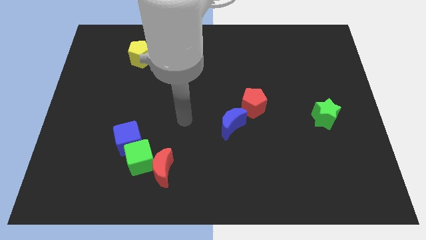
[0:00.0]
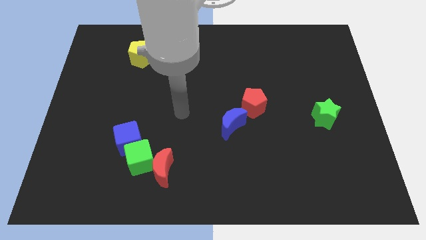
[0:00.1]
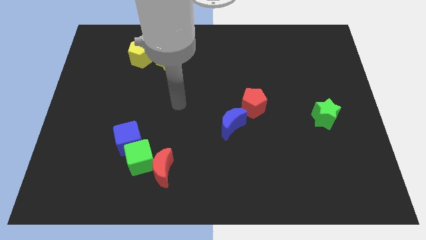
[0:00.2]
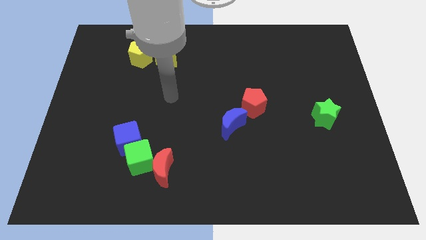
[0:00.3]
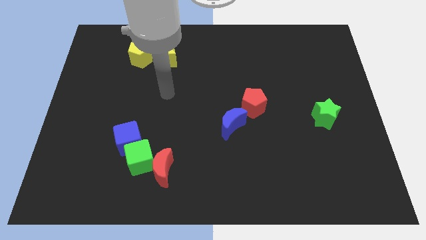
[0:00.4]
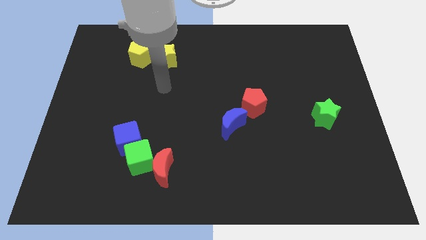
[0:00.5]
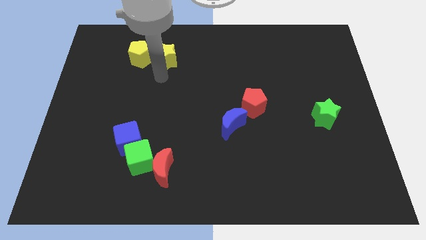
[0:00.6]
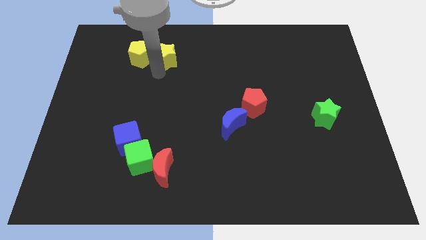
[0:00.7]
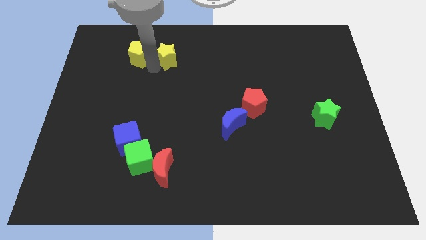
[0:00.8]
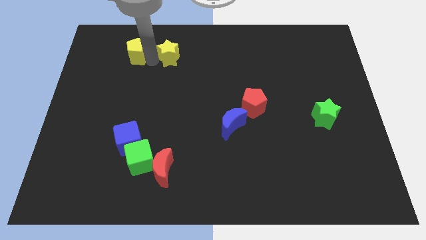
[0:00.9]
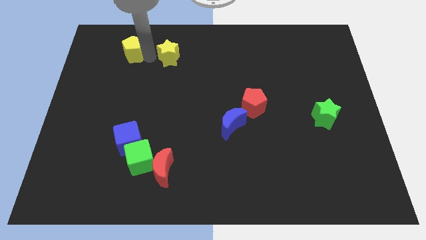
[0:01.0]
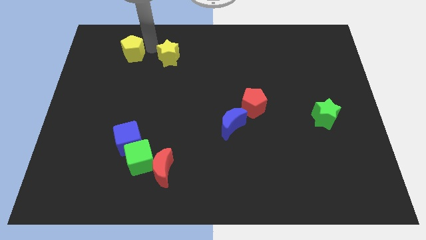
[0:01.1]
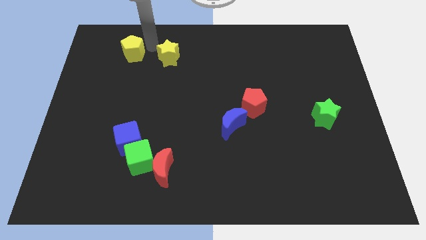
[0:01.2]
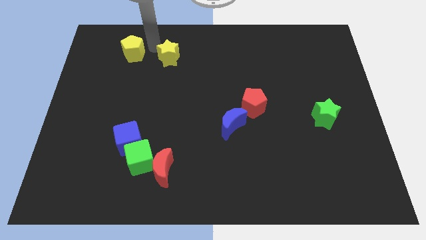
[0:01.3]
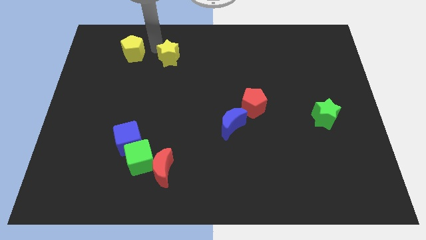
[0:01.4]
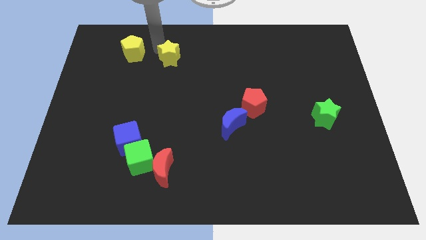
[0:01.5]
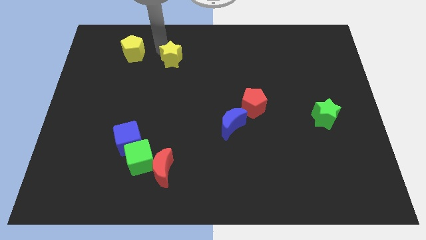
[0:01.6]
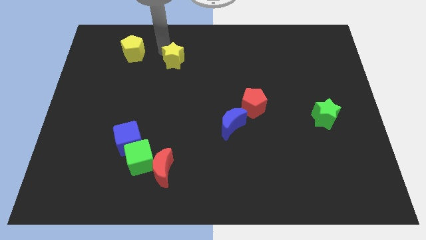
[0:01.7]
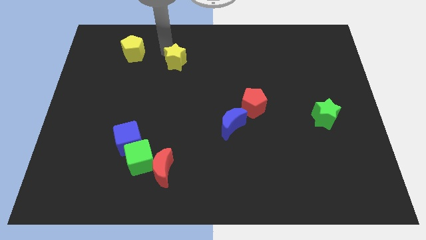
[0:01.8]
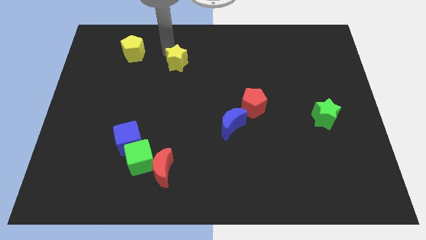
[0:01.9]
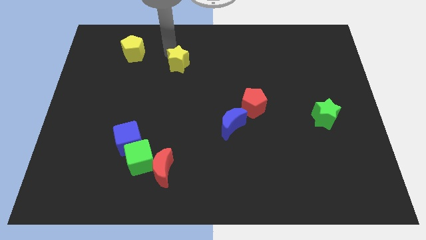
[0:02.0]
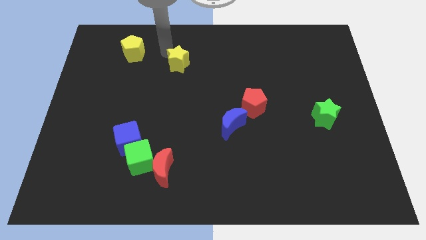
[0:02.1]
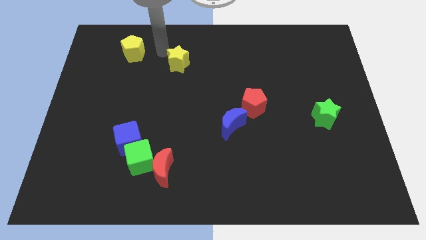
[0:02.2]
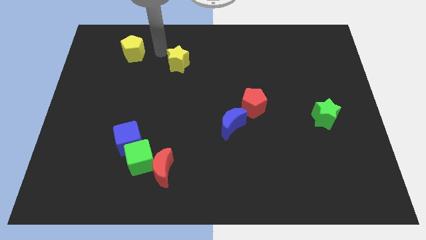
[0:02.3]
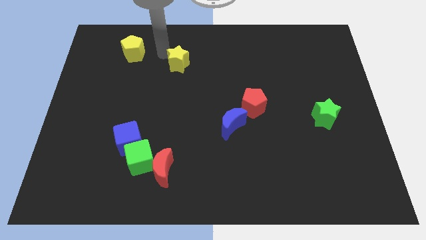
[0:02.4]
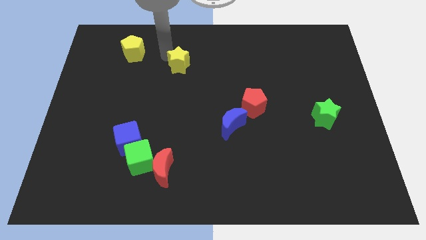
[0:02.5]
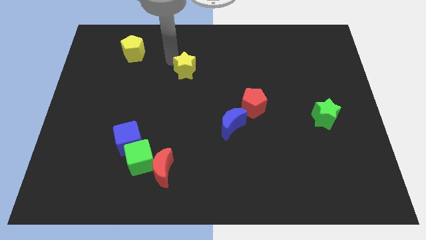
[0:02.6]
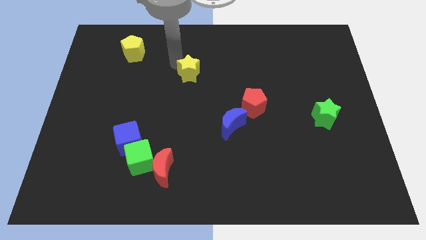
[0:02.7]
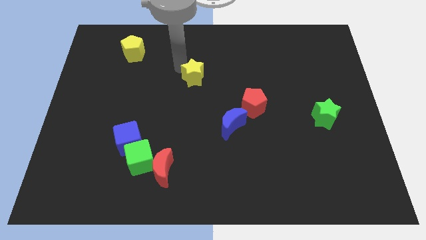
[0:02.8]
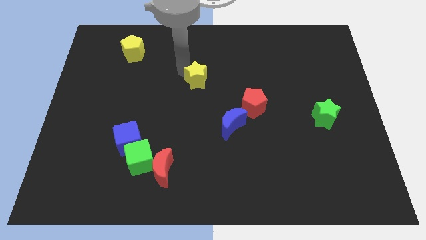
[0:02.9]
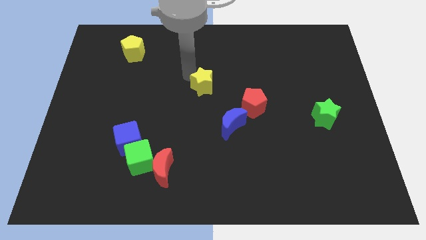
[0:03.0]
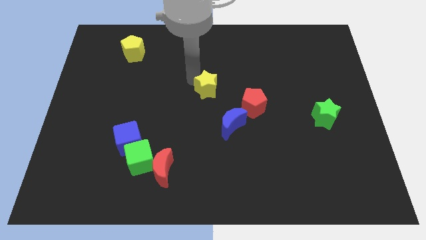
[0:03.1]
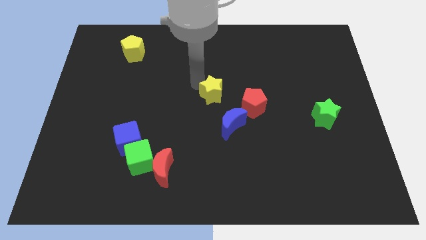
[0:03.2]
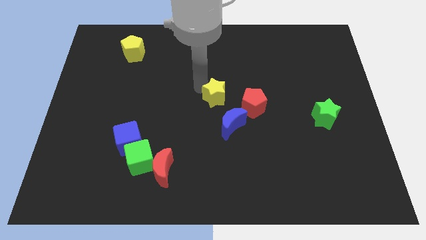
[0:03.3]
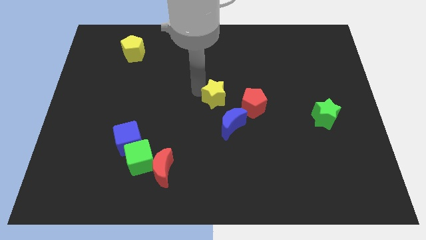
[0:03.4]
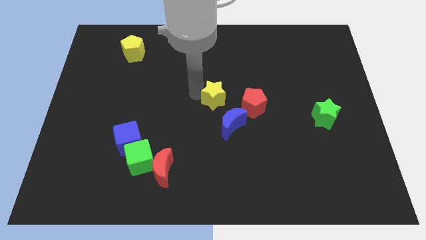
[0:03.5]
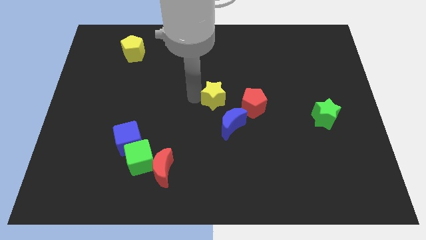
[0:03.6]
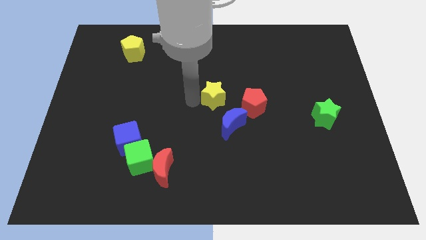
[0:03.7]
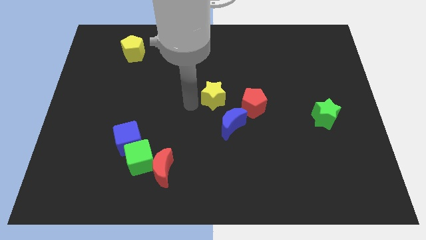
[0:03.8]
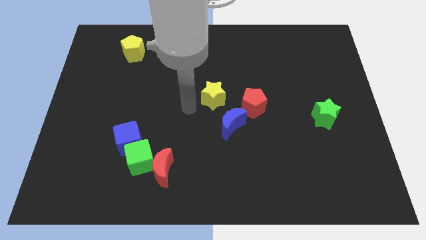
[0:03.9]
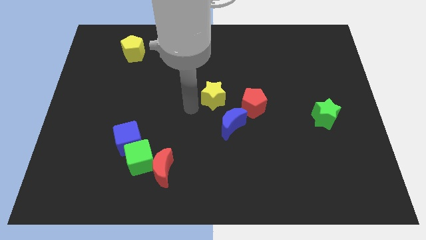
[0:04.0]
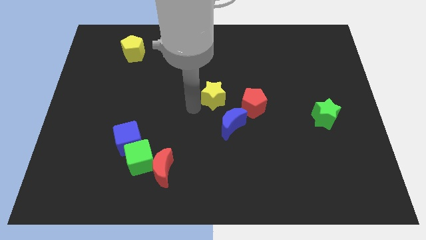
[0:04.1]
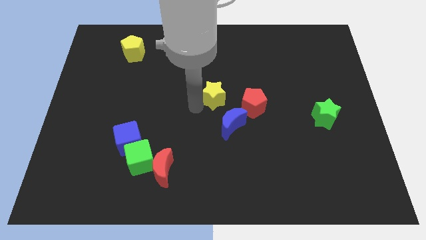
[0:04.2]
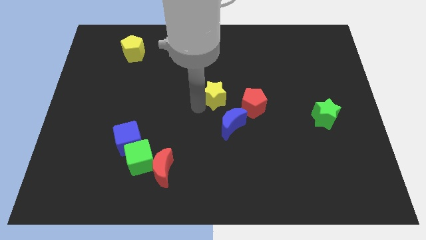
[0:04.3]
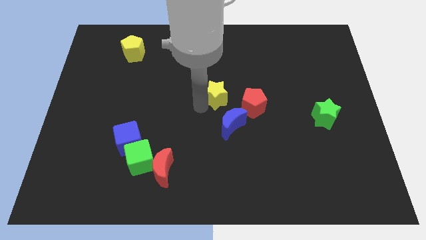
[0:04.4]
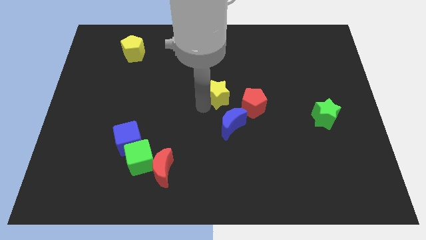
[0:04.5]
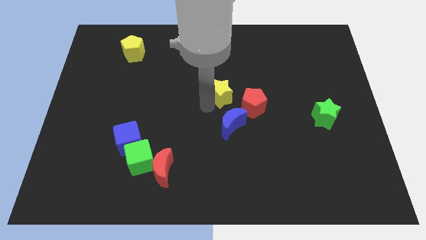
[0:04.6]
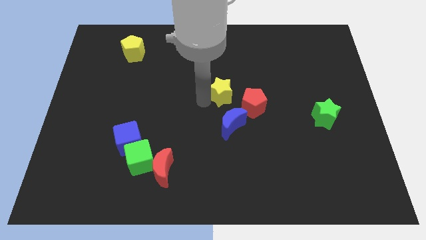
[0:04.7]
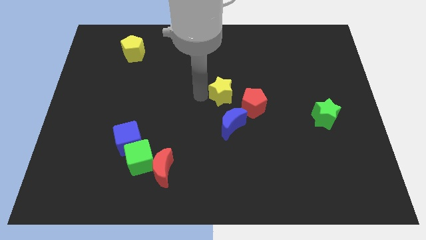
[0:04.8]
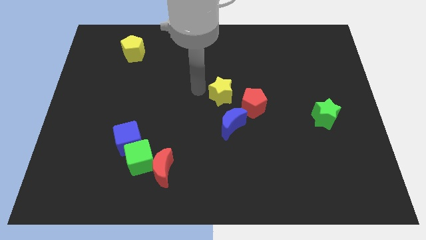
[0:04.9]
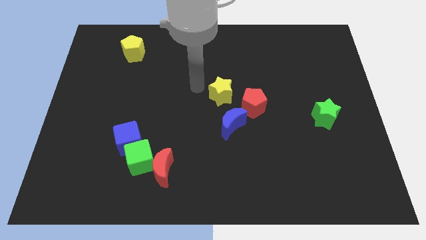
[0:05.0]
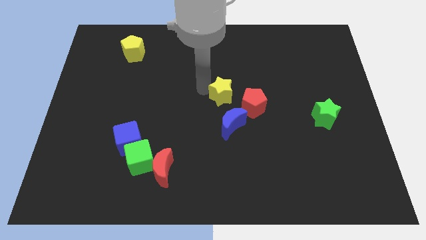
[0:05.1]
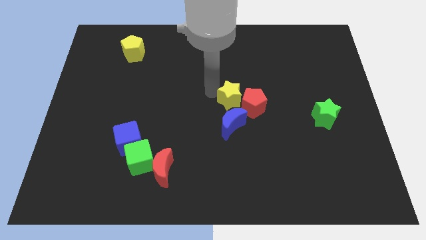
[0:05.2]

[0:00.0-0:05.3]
push the yellow star towards the red pentagon

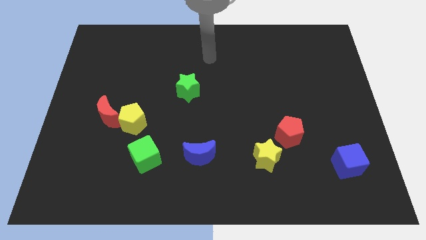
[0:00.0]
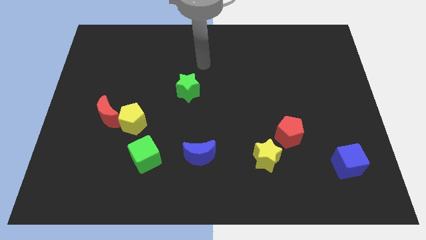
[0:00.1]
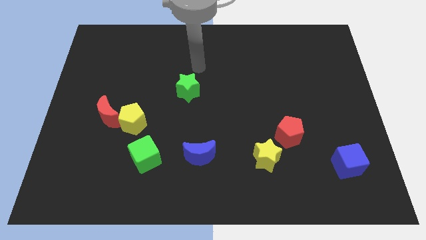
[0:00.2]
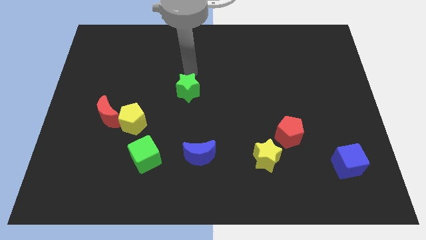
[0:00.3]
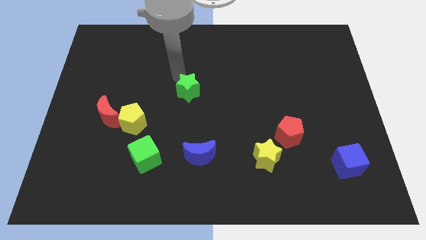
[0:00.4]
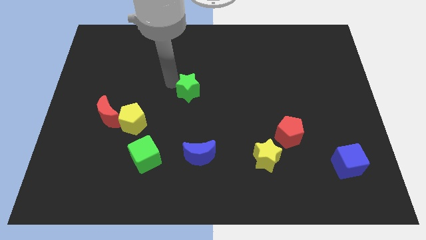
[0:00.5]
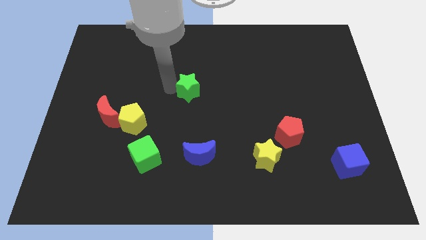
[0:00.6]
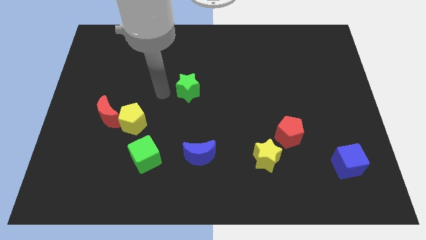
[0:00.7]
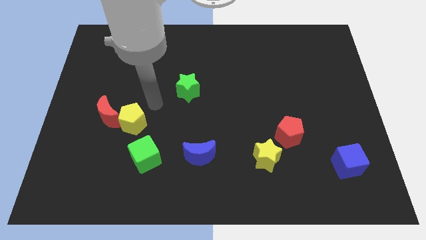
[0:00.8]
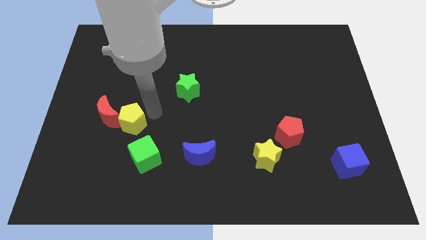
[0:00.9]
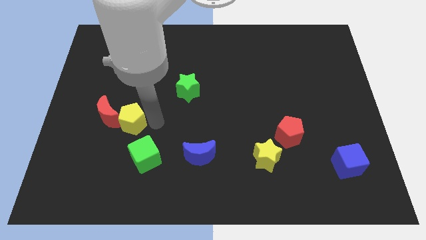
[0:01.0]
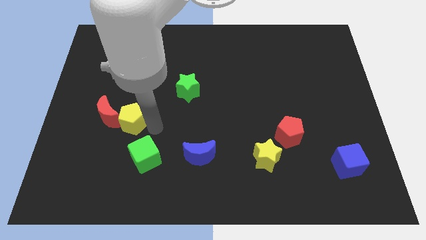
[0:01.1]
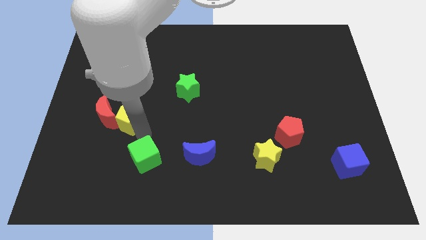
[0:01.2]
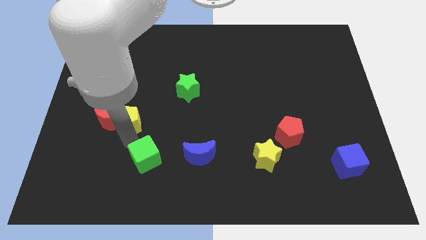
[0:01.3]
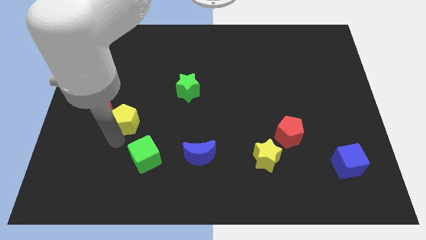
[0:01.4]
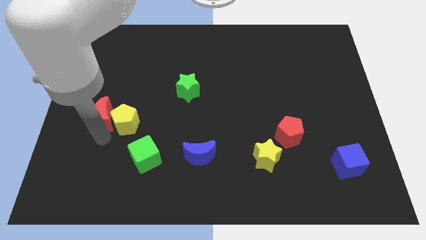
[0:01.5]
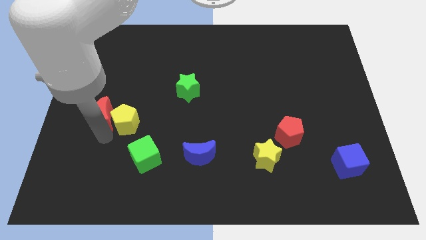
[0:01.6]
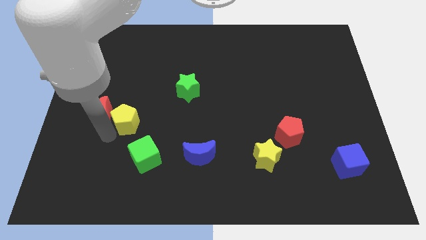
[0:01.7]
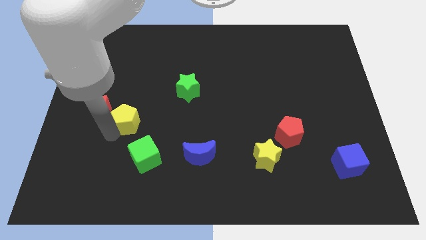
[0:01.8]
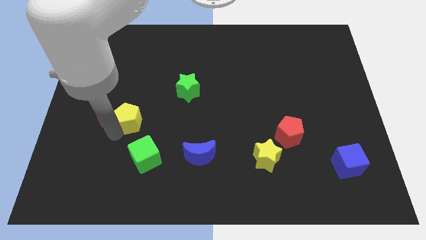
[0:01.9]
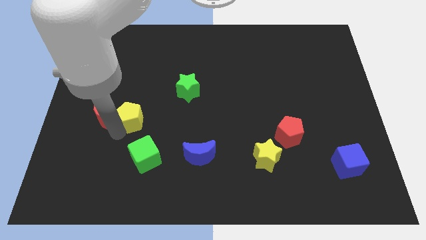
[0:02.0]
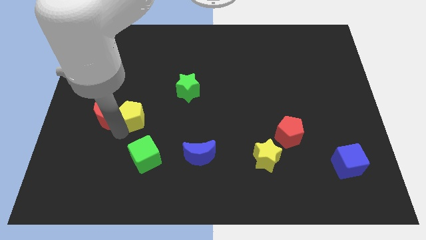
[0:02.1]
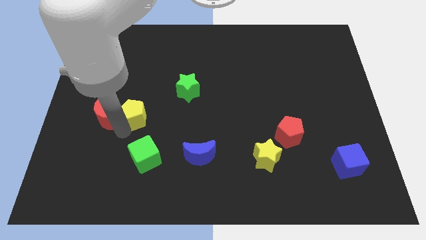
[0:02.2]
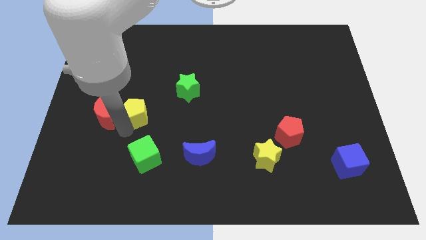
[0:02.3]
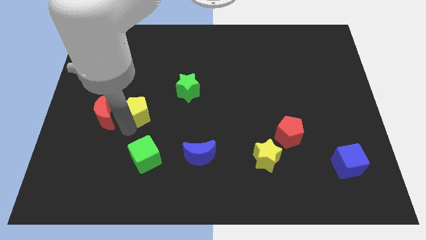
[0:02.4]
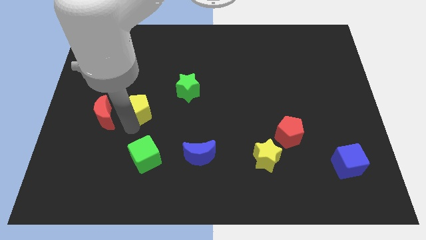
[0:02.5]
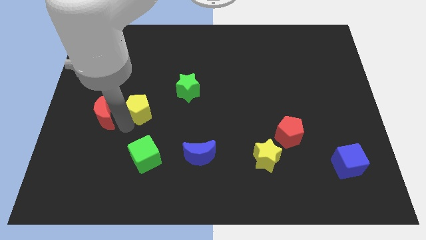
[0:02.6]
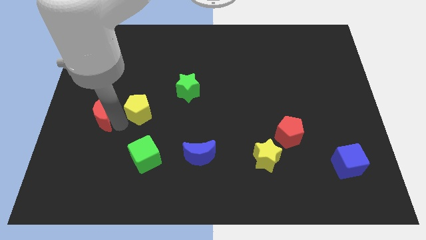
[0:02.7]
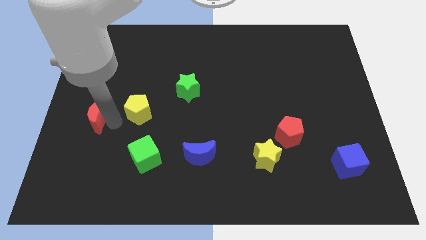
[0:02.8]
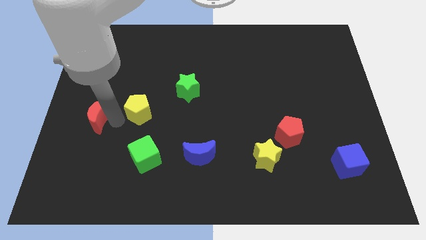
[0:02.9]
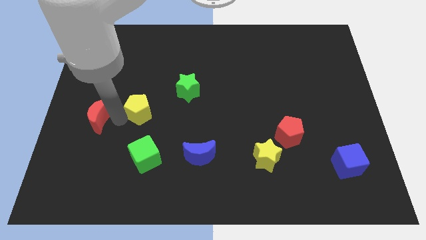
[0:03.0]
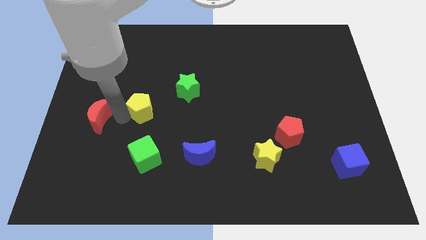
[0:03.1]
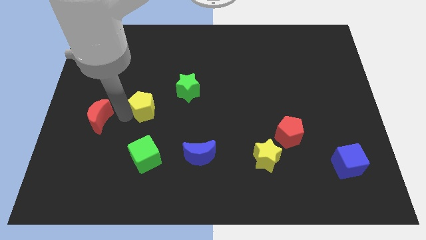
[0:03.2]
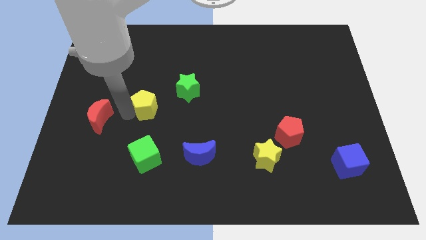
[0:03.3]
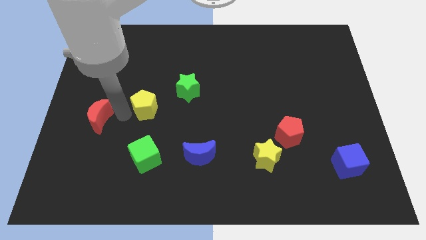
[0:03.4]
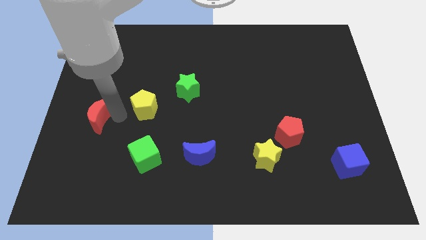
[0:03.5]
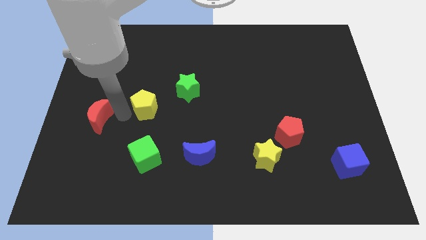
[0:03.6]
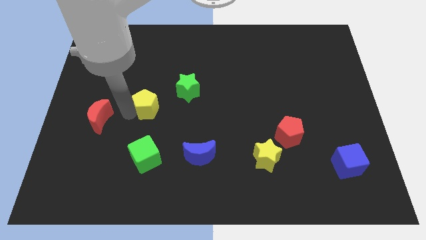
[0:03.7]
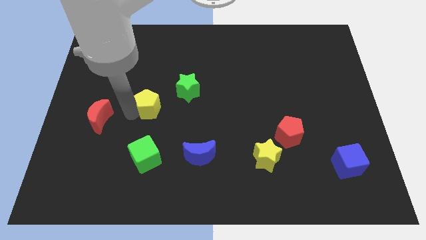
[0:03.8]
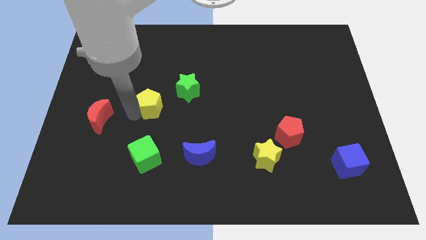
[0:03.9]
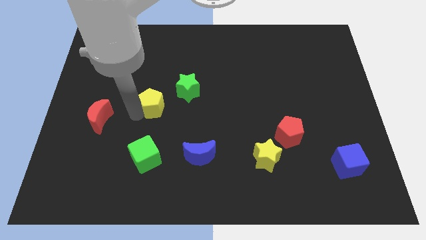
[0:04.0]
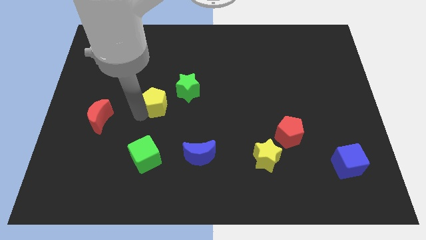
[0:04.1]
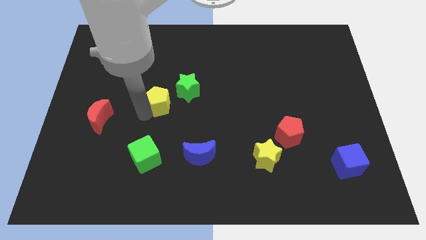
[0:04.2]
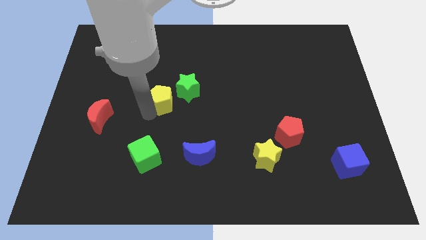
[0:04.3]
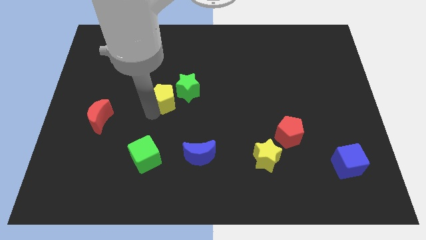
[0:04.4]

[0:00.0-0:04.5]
slide the yellow pentagon towards the green star
